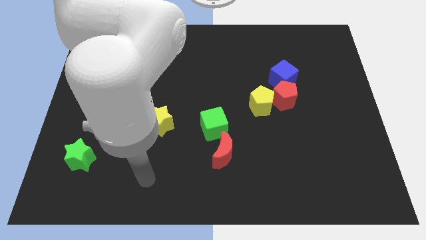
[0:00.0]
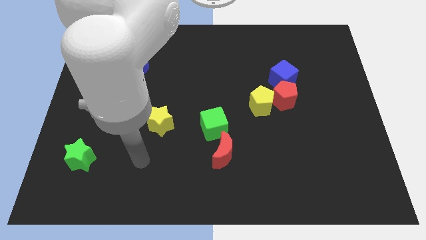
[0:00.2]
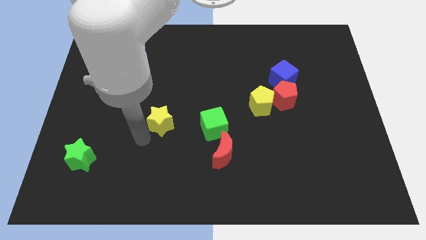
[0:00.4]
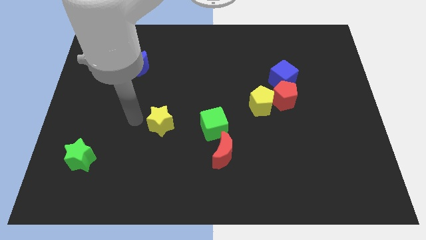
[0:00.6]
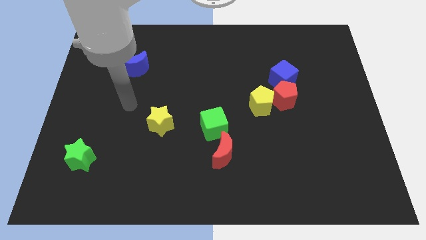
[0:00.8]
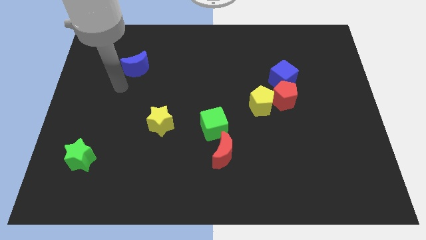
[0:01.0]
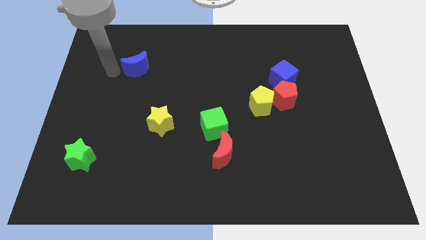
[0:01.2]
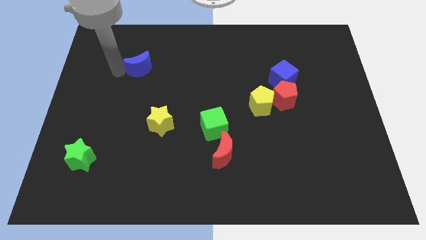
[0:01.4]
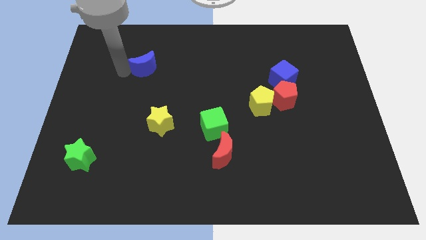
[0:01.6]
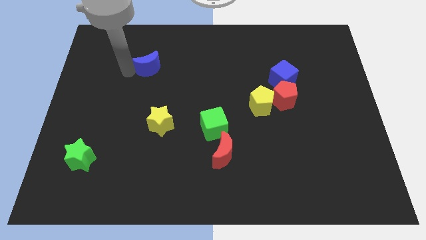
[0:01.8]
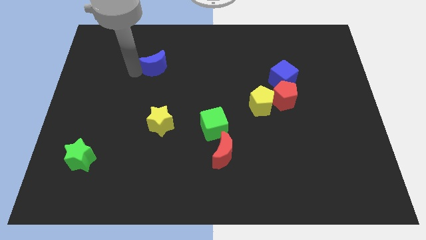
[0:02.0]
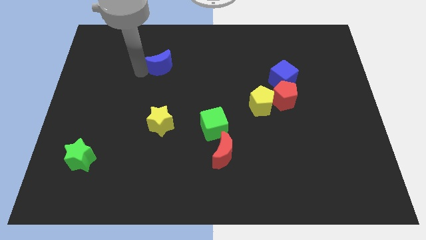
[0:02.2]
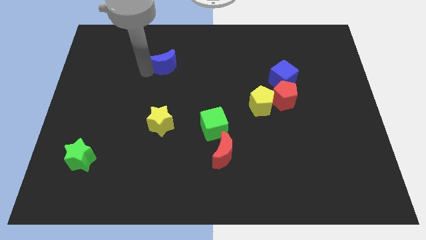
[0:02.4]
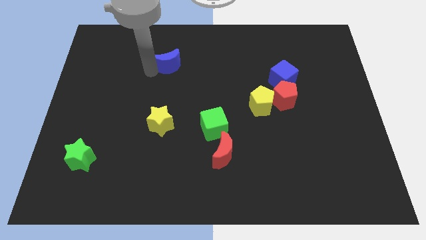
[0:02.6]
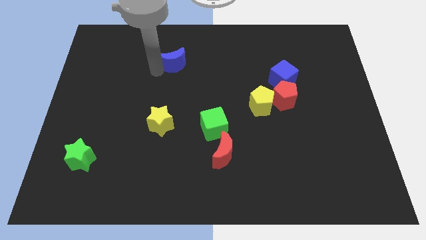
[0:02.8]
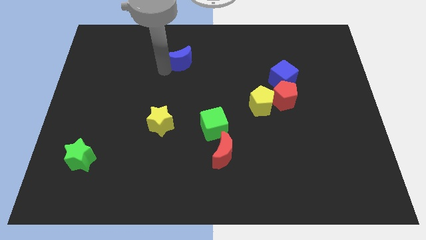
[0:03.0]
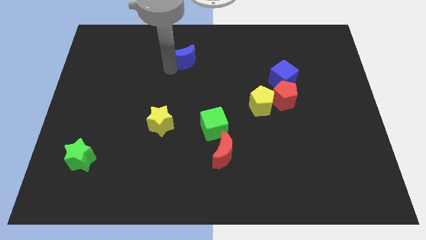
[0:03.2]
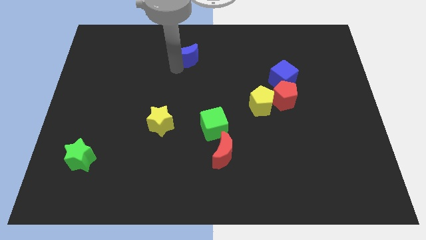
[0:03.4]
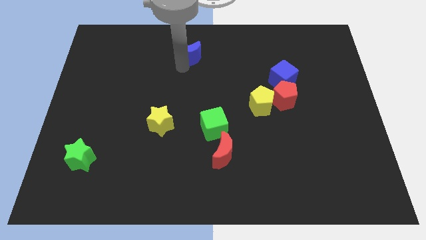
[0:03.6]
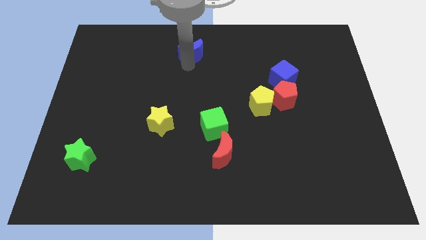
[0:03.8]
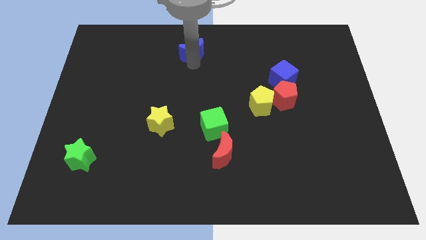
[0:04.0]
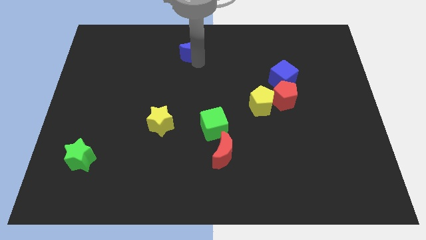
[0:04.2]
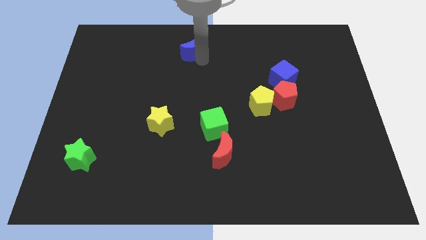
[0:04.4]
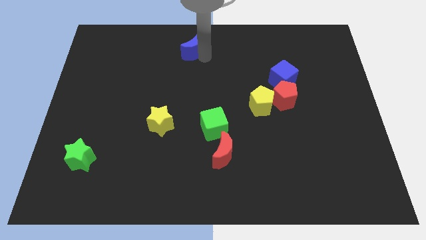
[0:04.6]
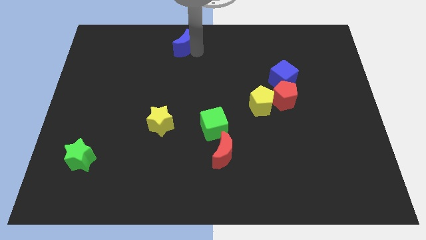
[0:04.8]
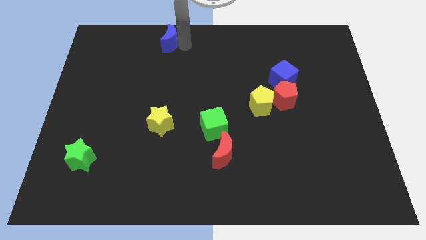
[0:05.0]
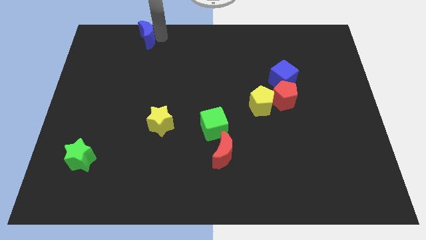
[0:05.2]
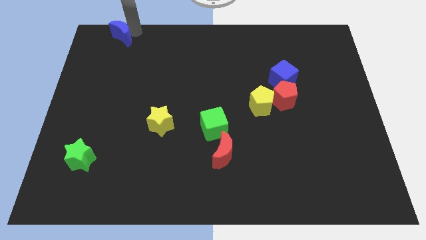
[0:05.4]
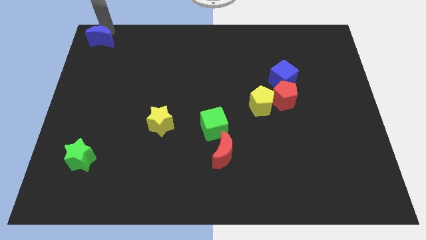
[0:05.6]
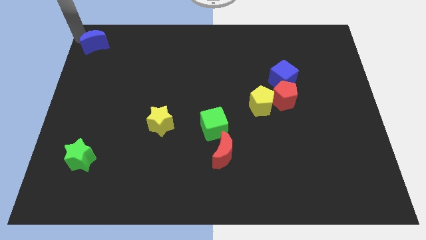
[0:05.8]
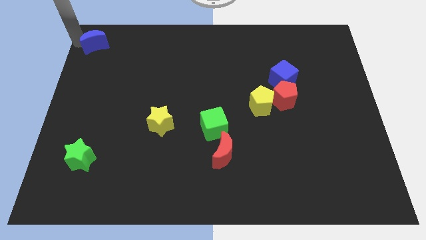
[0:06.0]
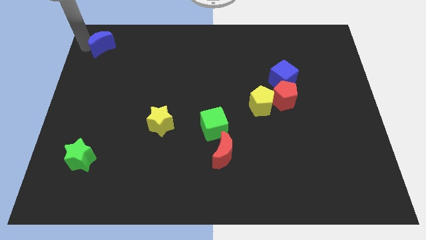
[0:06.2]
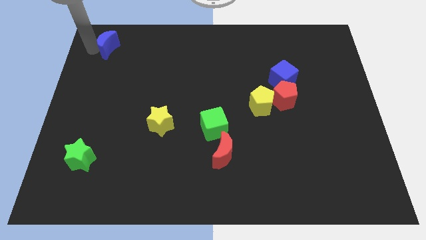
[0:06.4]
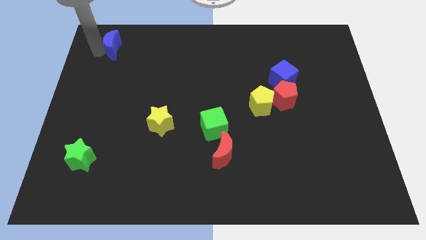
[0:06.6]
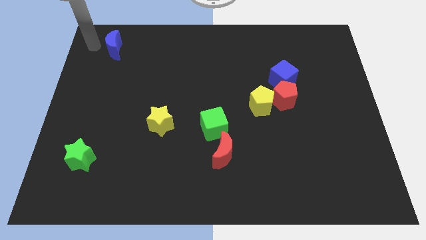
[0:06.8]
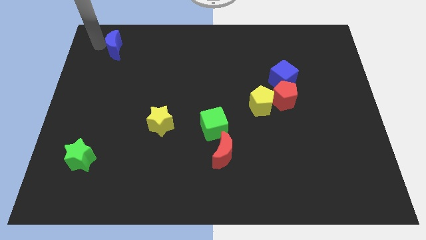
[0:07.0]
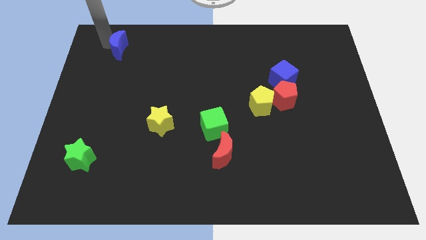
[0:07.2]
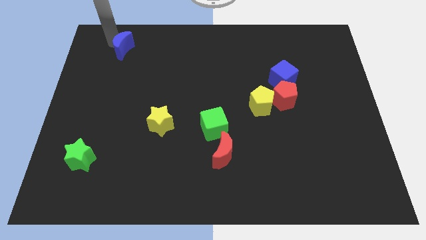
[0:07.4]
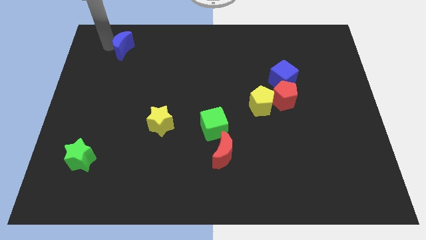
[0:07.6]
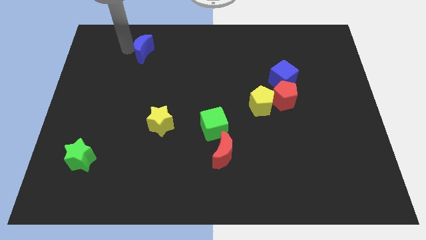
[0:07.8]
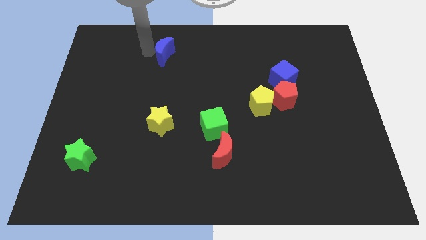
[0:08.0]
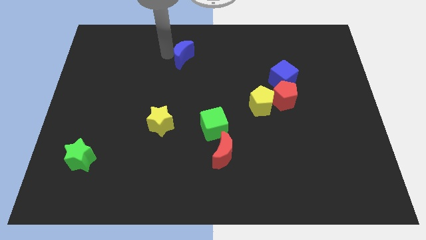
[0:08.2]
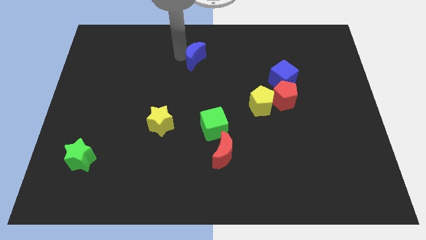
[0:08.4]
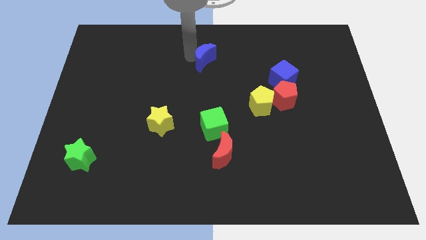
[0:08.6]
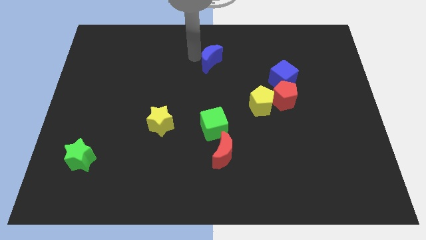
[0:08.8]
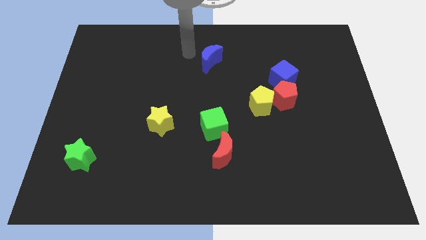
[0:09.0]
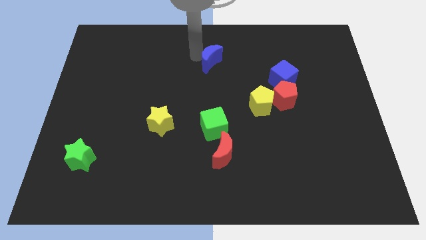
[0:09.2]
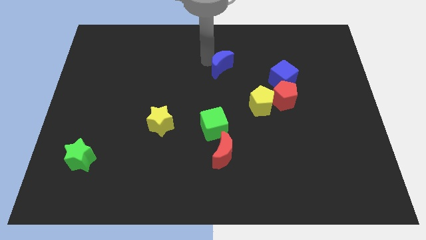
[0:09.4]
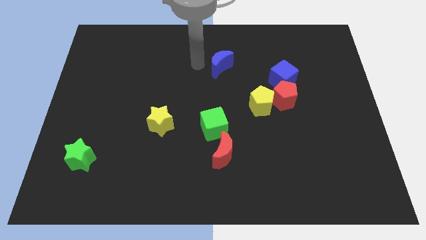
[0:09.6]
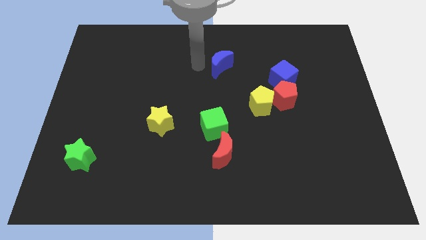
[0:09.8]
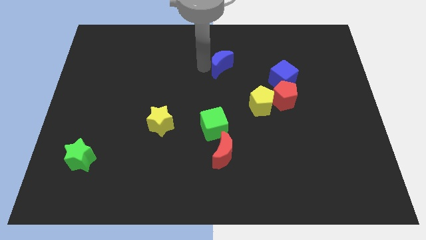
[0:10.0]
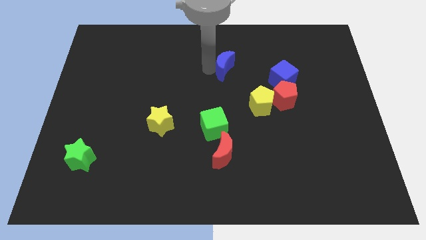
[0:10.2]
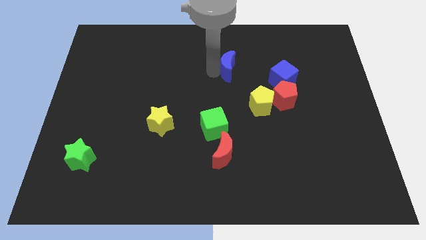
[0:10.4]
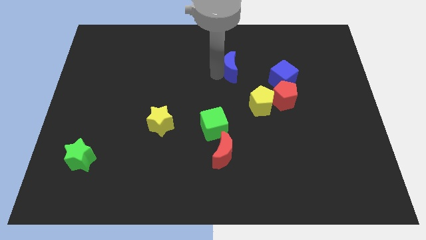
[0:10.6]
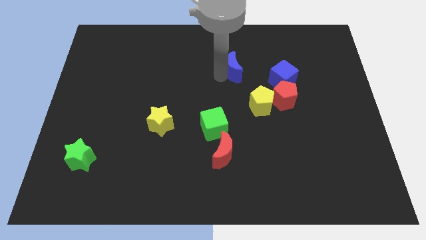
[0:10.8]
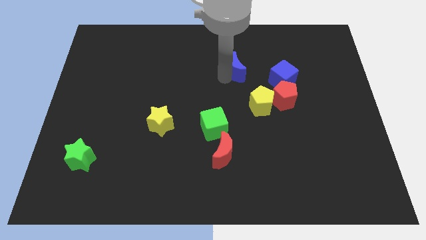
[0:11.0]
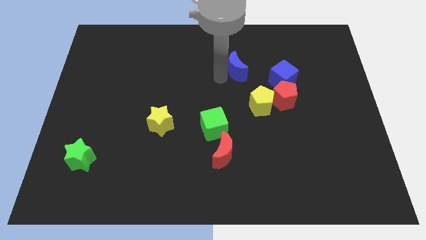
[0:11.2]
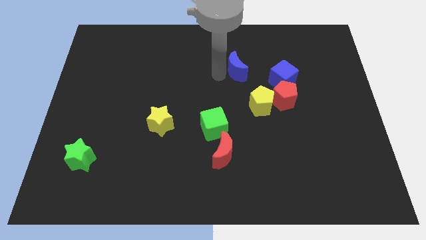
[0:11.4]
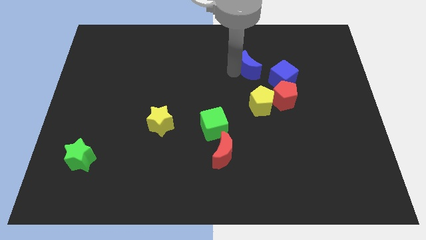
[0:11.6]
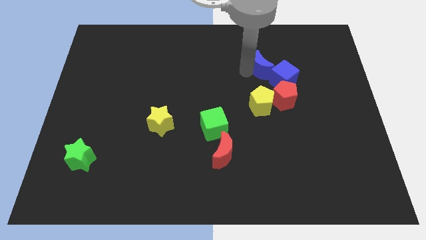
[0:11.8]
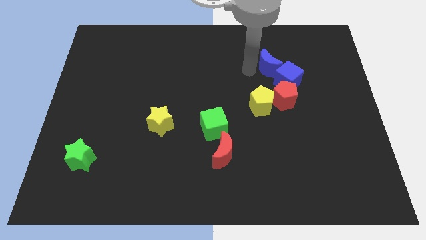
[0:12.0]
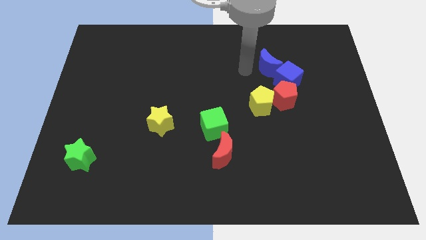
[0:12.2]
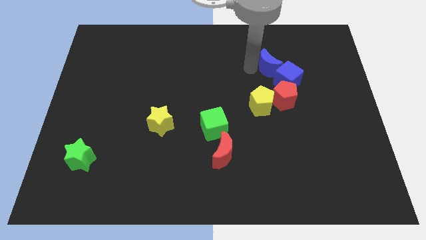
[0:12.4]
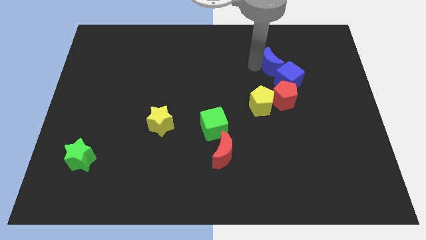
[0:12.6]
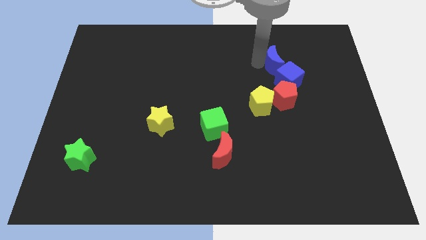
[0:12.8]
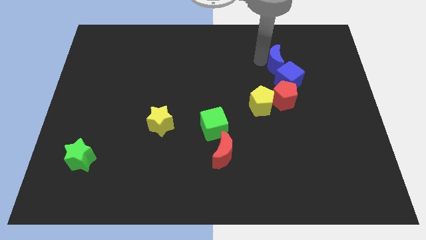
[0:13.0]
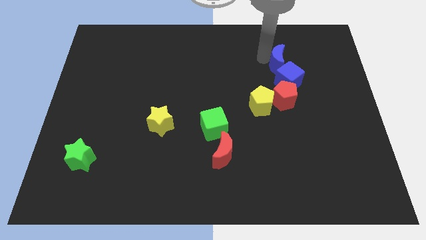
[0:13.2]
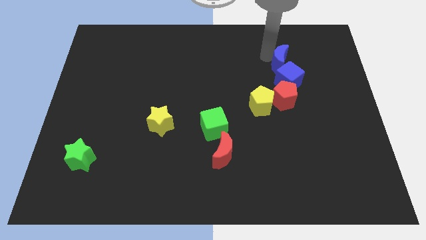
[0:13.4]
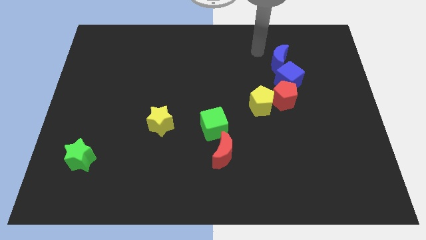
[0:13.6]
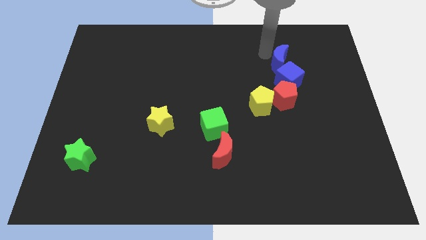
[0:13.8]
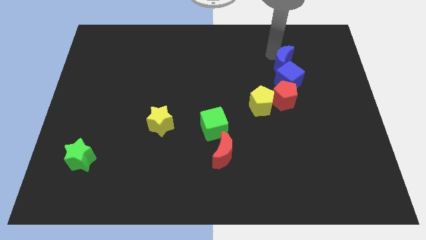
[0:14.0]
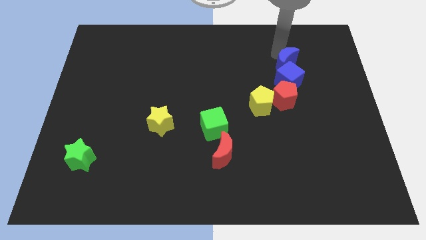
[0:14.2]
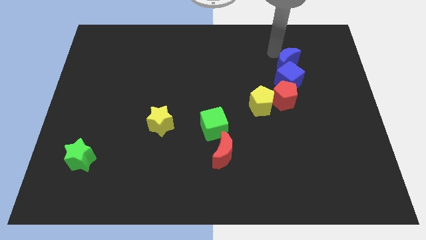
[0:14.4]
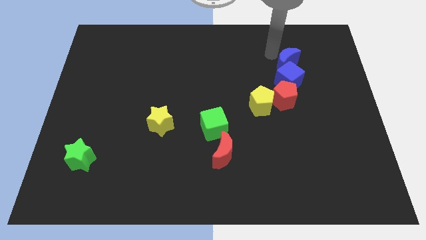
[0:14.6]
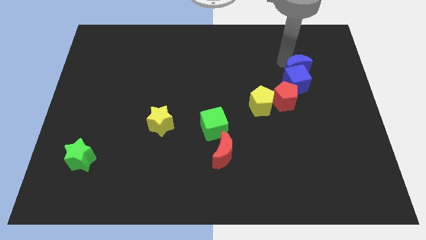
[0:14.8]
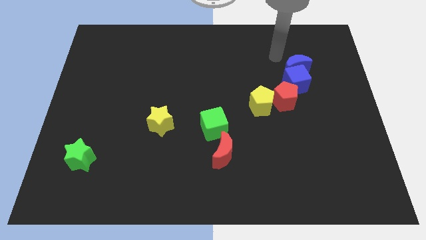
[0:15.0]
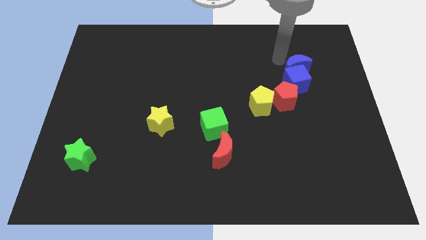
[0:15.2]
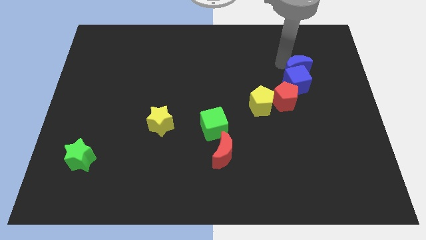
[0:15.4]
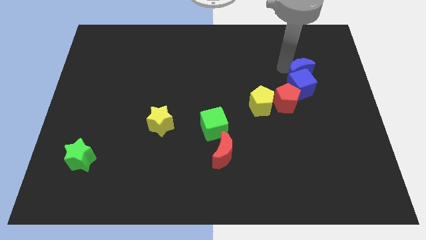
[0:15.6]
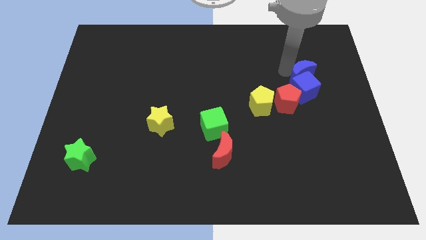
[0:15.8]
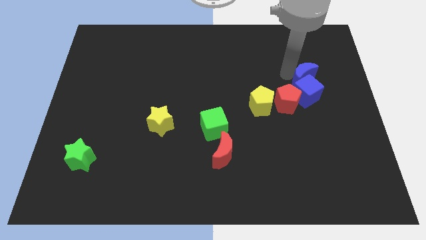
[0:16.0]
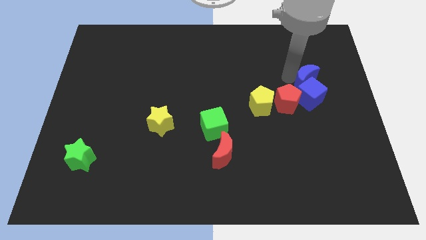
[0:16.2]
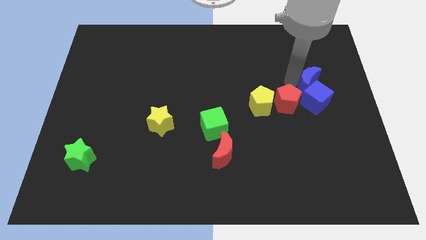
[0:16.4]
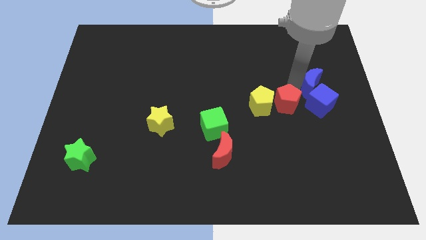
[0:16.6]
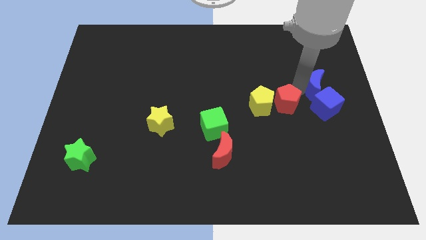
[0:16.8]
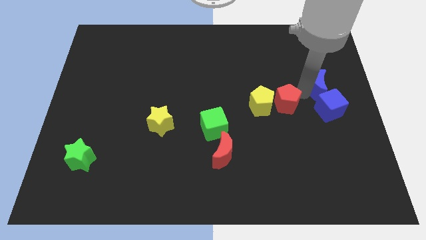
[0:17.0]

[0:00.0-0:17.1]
slide the blue moon to the right side of the board
